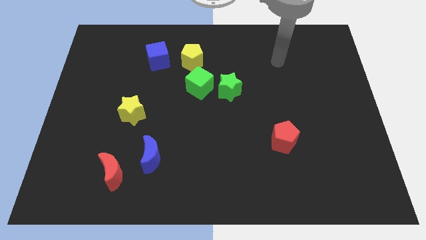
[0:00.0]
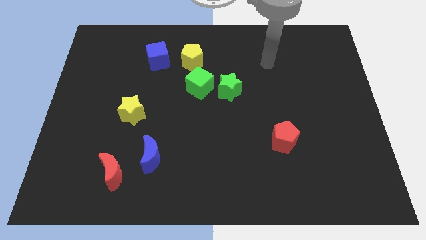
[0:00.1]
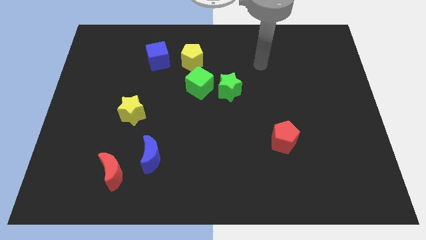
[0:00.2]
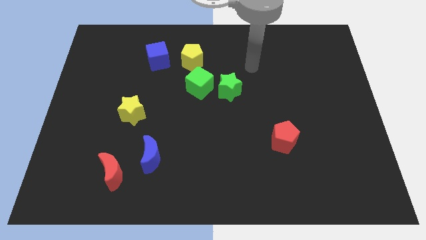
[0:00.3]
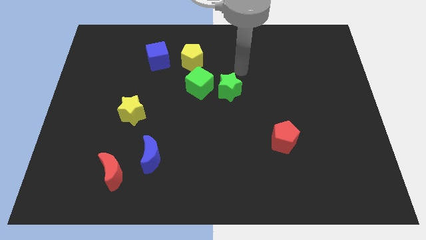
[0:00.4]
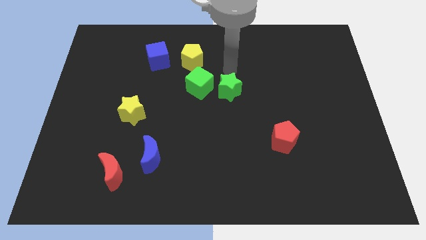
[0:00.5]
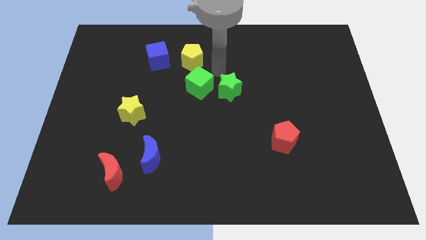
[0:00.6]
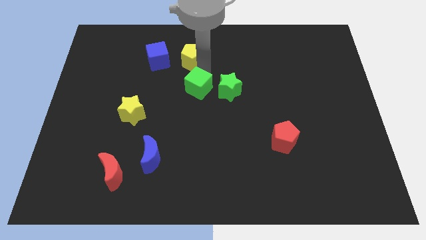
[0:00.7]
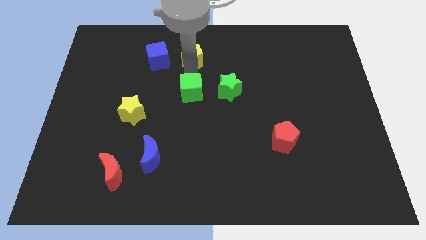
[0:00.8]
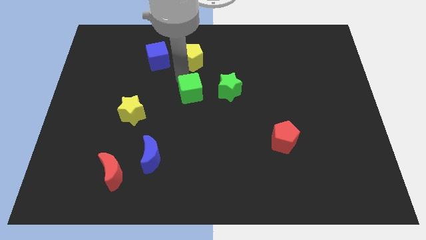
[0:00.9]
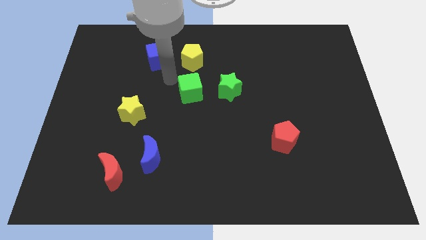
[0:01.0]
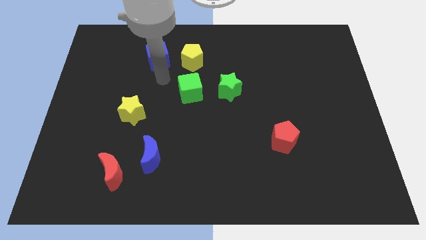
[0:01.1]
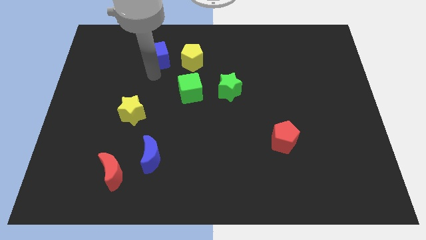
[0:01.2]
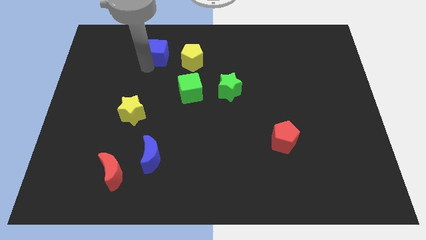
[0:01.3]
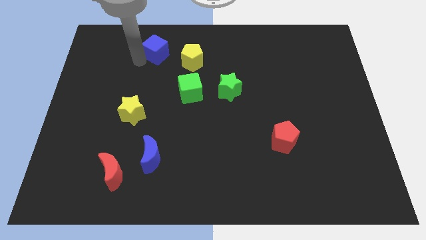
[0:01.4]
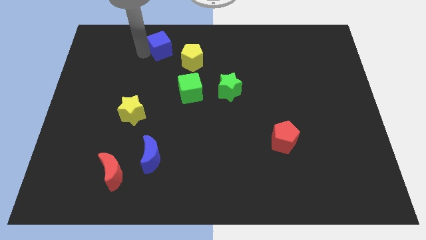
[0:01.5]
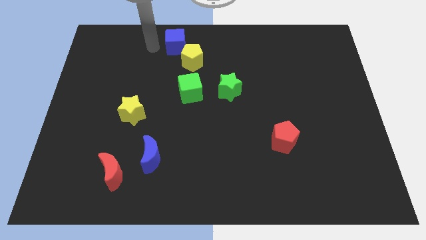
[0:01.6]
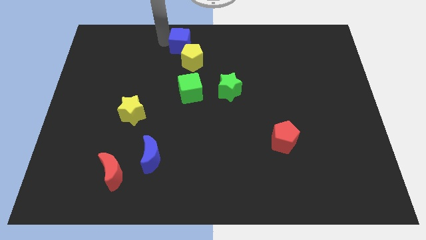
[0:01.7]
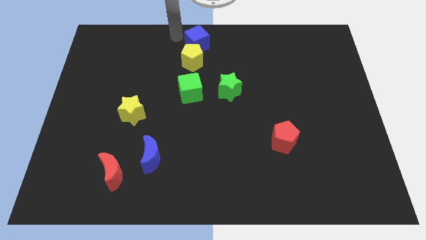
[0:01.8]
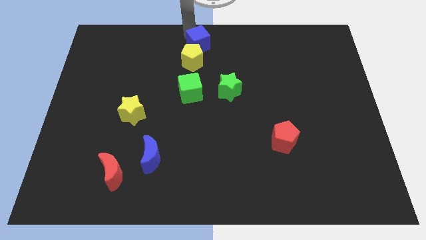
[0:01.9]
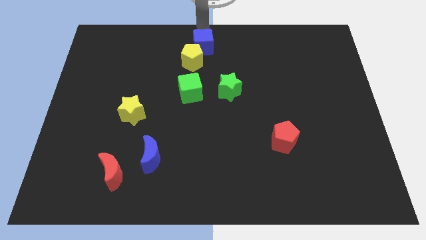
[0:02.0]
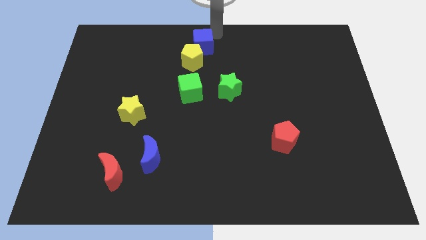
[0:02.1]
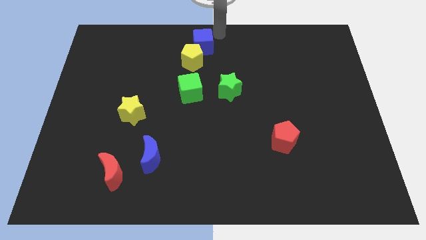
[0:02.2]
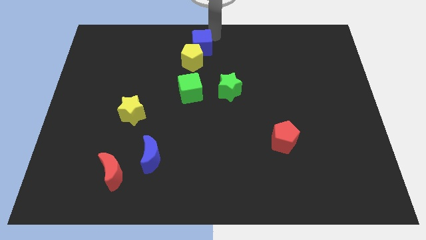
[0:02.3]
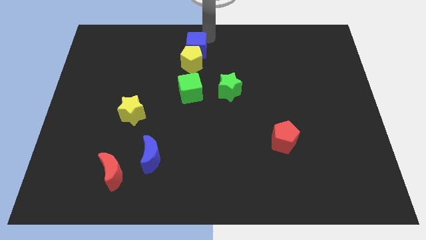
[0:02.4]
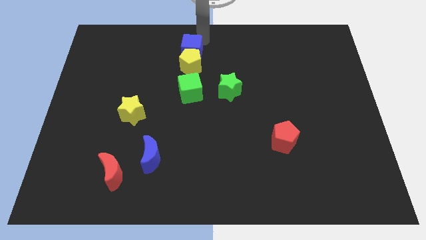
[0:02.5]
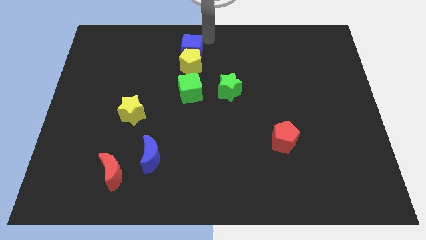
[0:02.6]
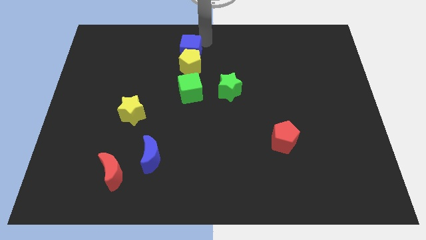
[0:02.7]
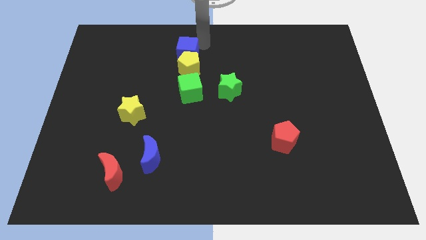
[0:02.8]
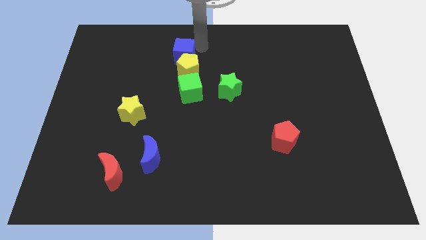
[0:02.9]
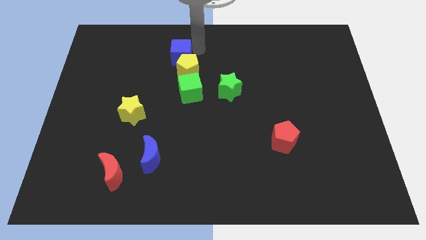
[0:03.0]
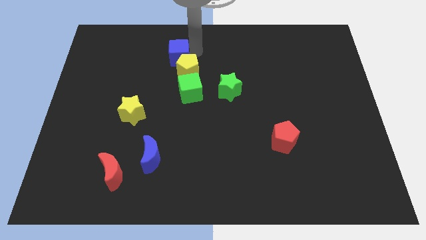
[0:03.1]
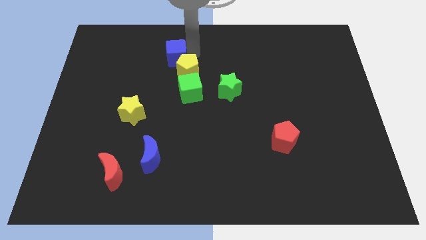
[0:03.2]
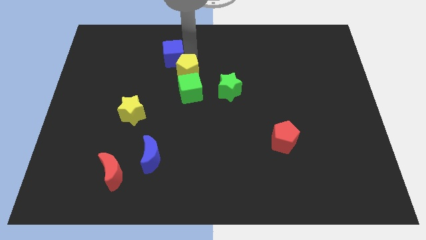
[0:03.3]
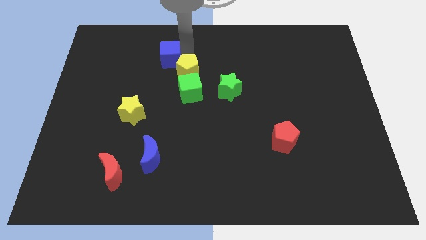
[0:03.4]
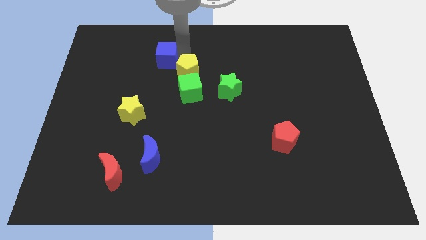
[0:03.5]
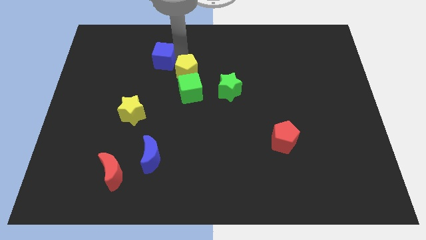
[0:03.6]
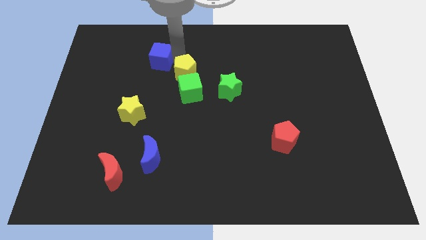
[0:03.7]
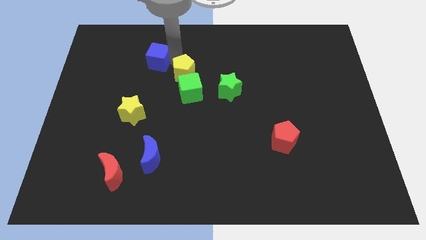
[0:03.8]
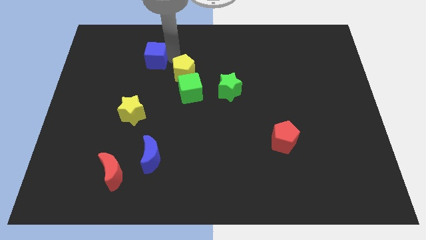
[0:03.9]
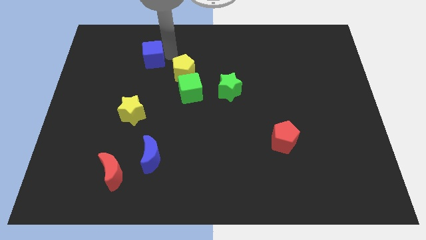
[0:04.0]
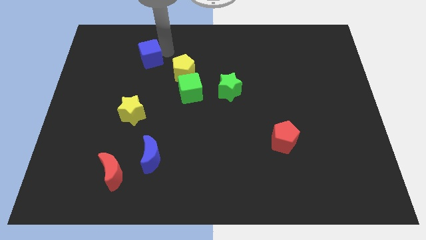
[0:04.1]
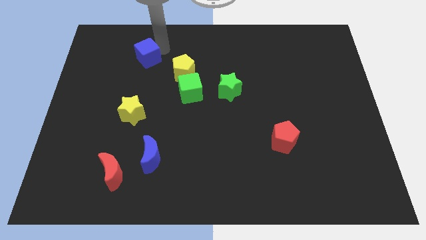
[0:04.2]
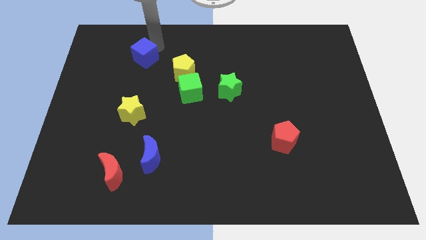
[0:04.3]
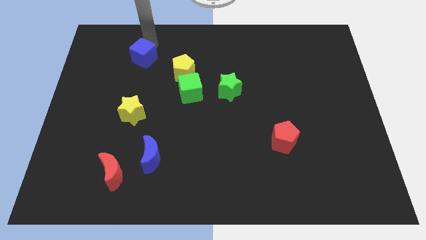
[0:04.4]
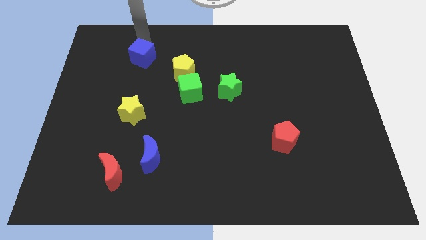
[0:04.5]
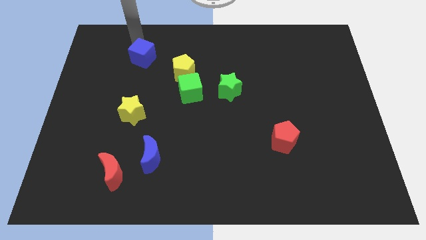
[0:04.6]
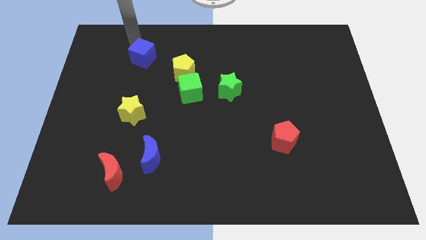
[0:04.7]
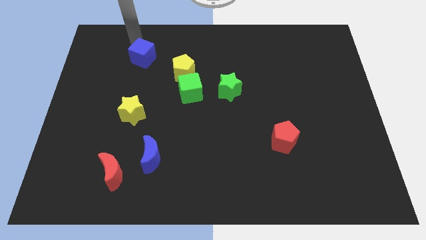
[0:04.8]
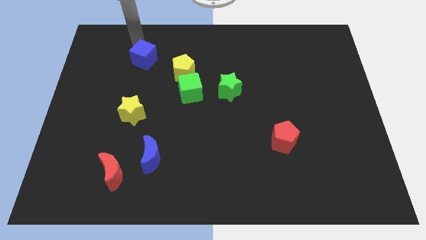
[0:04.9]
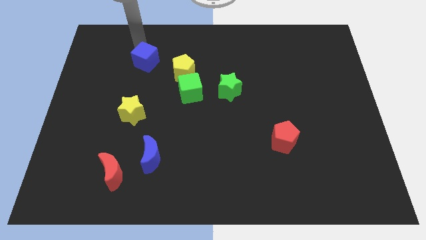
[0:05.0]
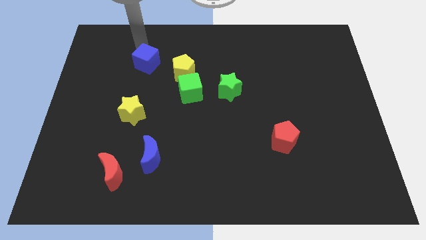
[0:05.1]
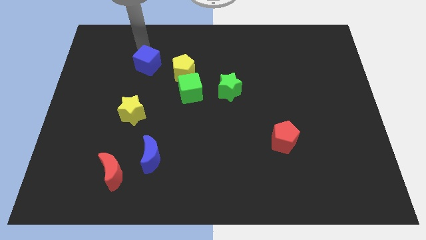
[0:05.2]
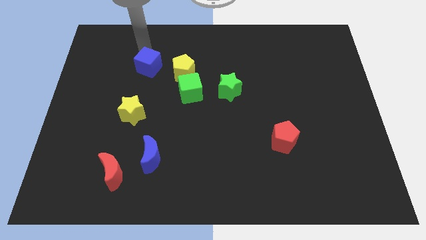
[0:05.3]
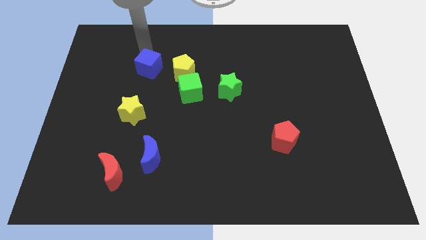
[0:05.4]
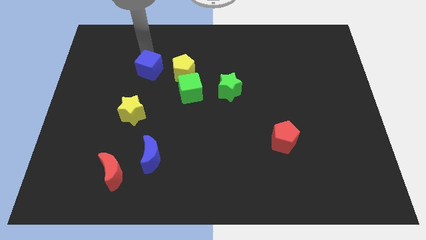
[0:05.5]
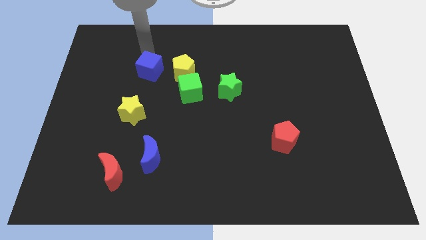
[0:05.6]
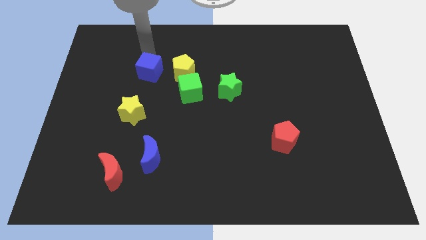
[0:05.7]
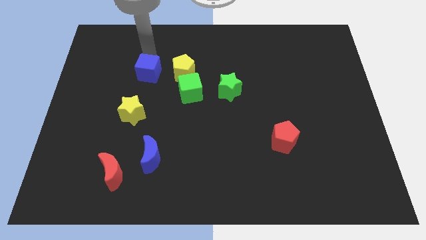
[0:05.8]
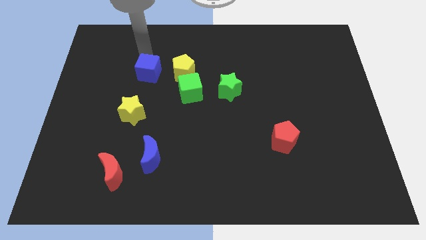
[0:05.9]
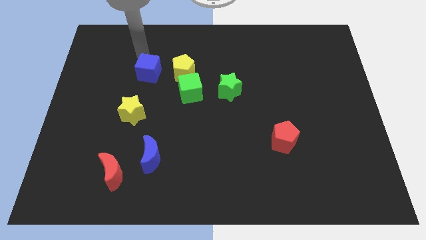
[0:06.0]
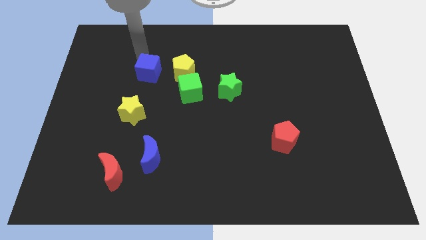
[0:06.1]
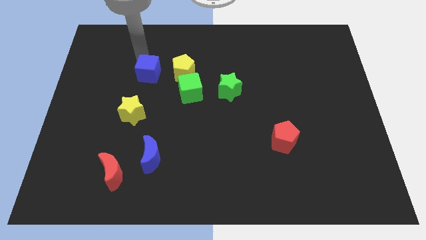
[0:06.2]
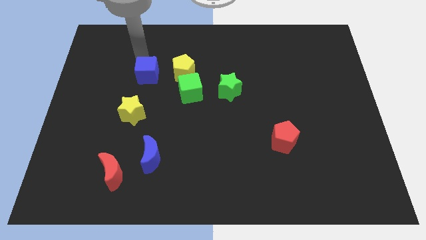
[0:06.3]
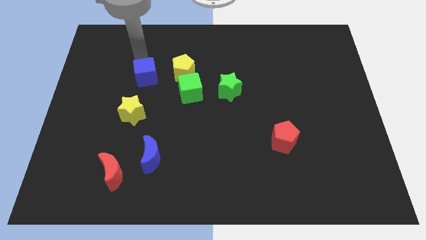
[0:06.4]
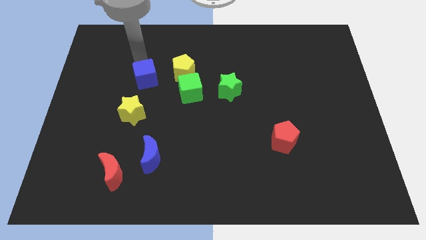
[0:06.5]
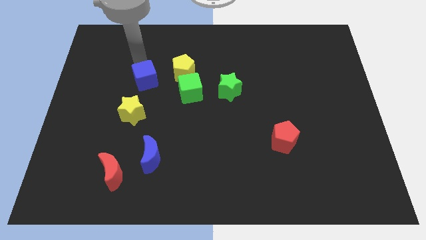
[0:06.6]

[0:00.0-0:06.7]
push the blue cube a little down

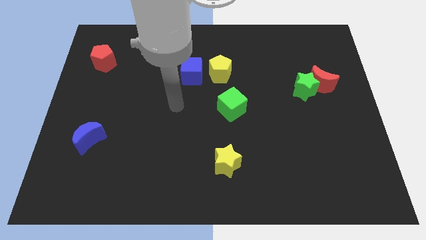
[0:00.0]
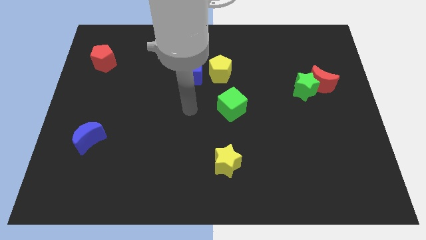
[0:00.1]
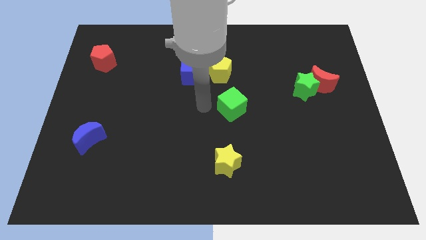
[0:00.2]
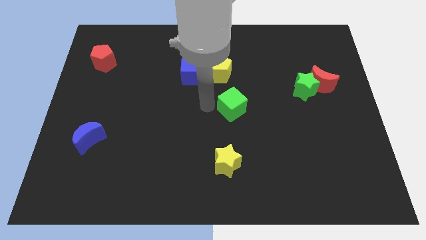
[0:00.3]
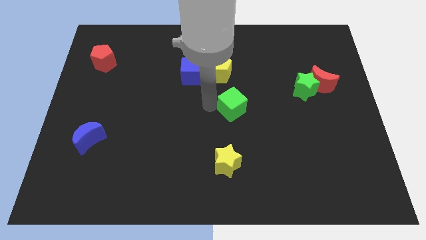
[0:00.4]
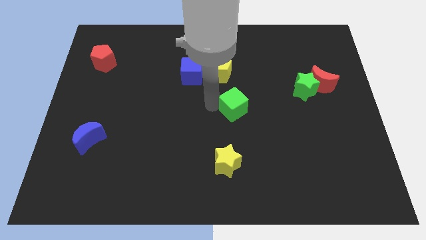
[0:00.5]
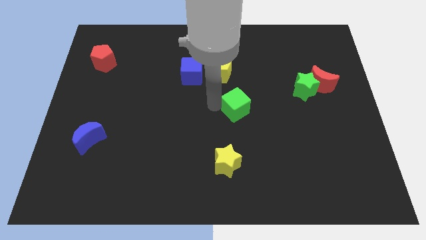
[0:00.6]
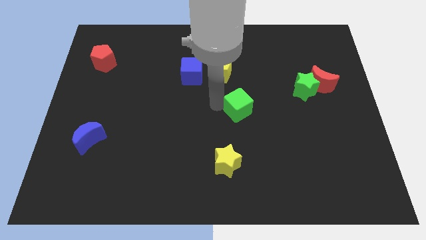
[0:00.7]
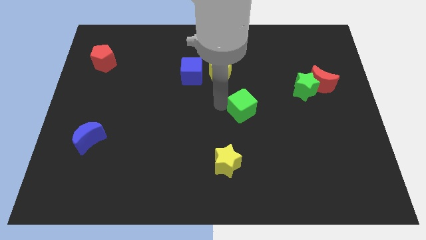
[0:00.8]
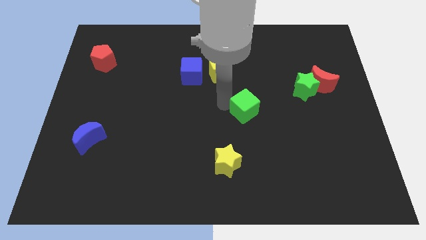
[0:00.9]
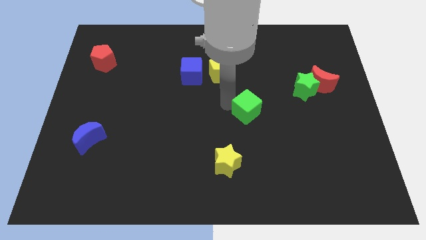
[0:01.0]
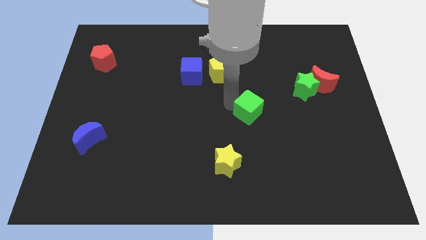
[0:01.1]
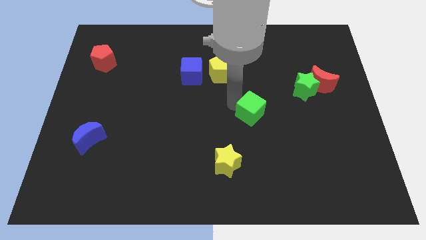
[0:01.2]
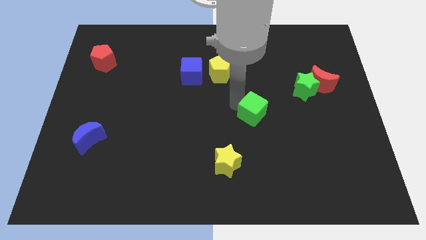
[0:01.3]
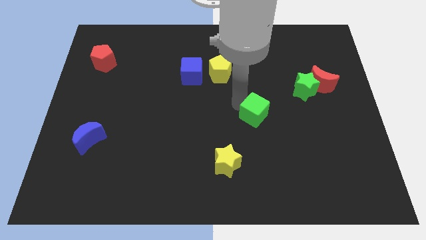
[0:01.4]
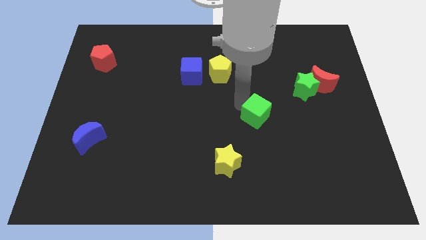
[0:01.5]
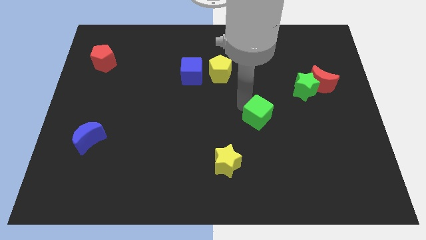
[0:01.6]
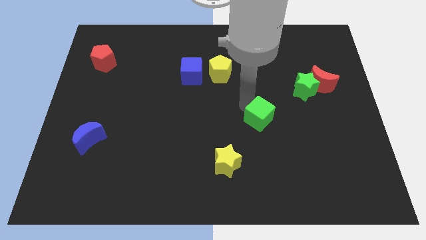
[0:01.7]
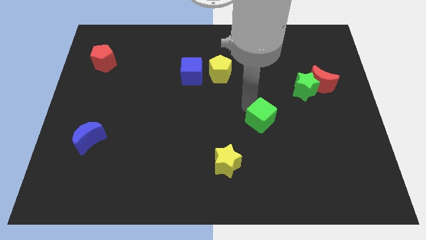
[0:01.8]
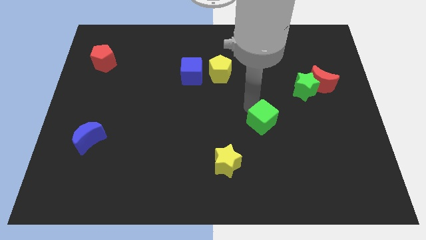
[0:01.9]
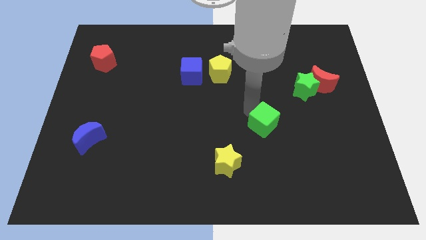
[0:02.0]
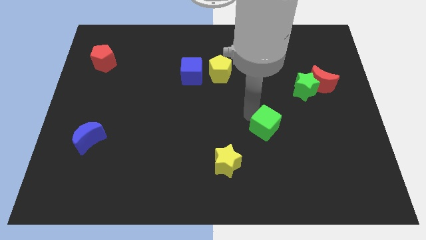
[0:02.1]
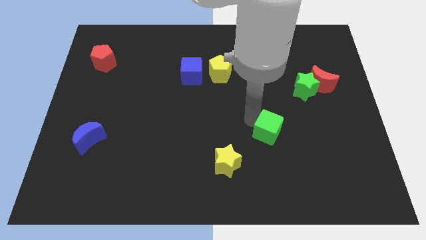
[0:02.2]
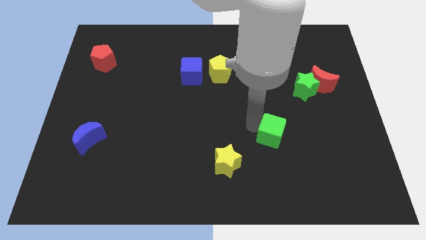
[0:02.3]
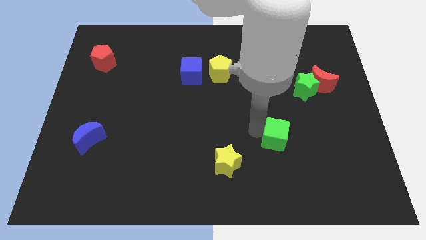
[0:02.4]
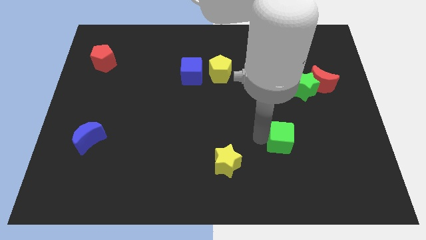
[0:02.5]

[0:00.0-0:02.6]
push the green cube a bit right
